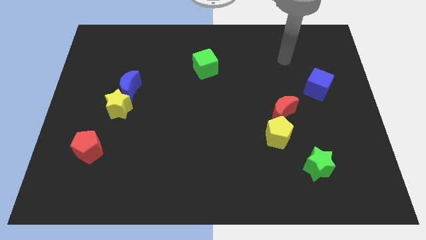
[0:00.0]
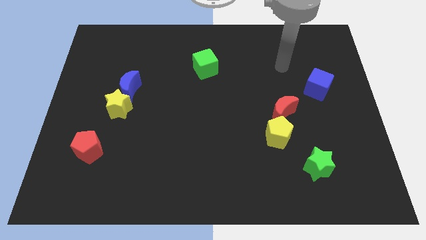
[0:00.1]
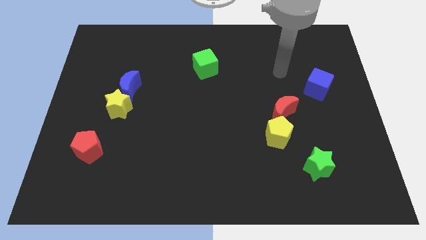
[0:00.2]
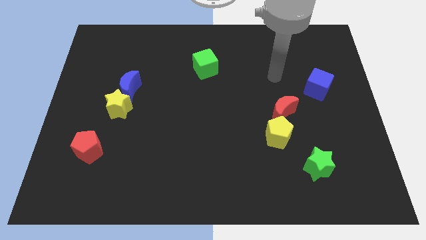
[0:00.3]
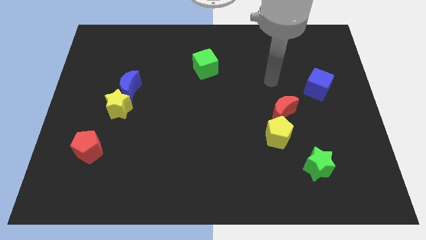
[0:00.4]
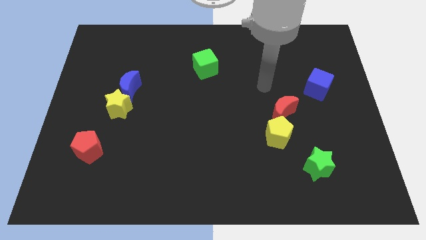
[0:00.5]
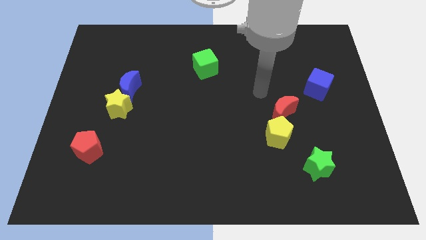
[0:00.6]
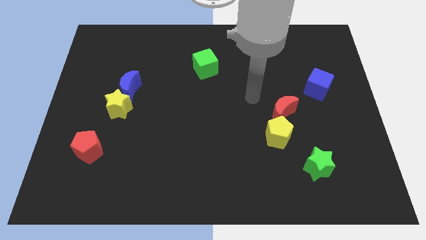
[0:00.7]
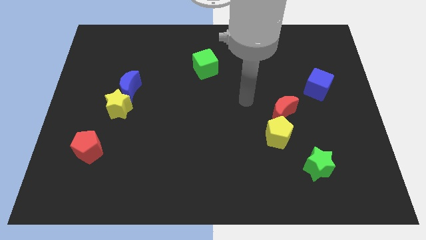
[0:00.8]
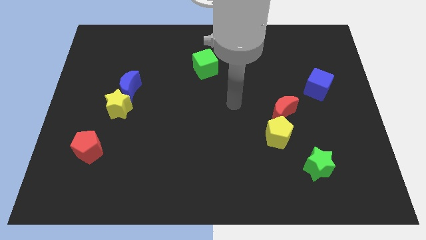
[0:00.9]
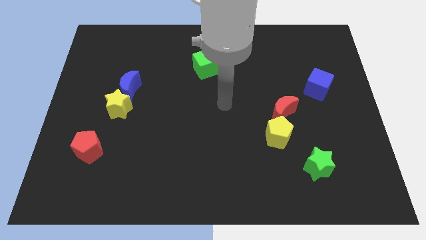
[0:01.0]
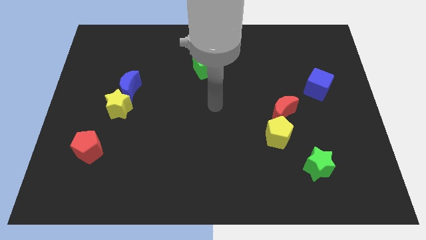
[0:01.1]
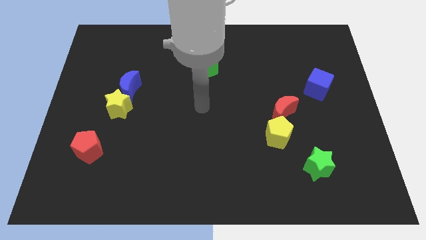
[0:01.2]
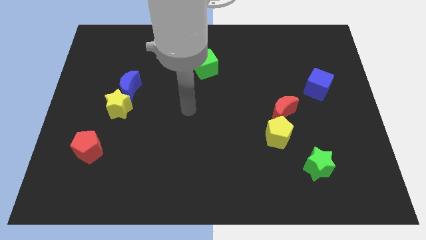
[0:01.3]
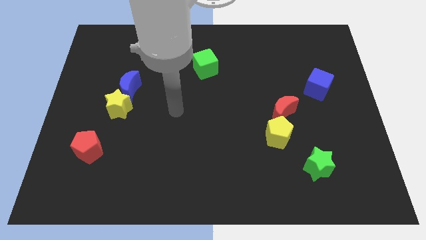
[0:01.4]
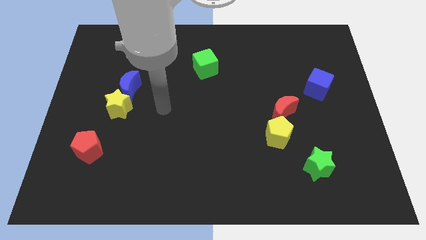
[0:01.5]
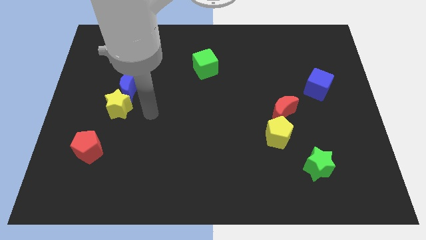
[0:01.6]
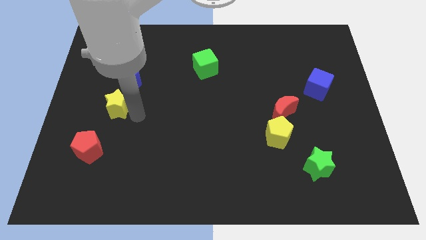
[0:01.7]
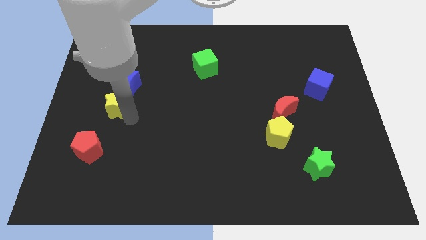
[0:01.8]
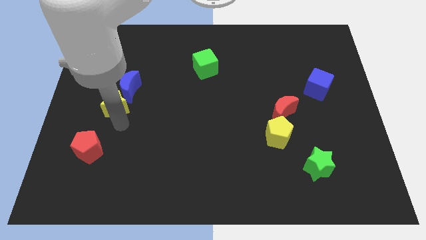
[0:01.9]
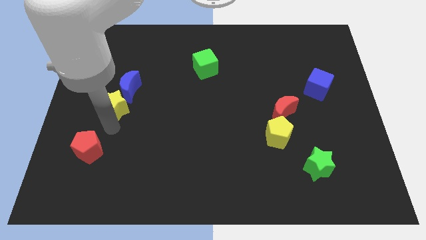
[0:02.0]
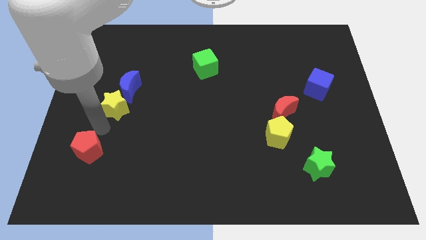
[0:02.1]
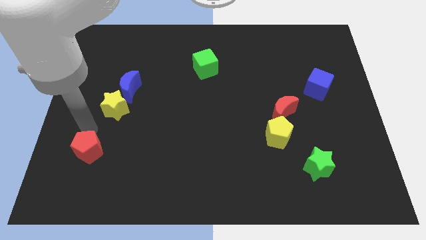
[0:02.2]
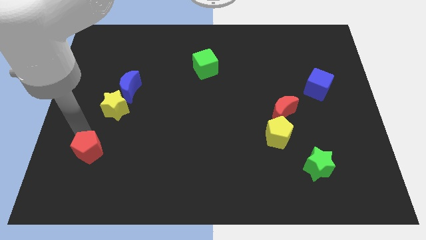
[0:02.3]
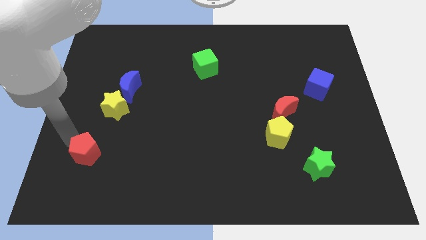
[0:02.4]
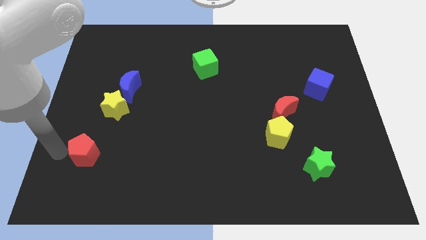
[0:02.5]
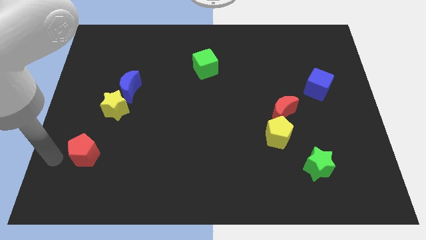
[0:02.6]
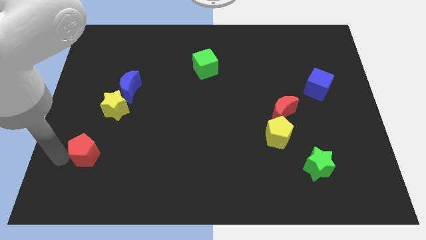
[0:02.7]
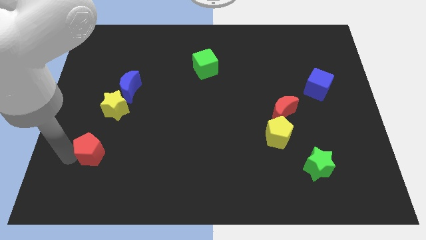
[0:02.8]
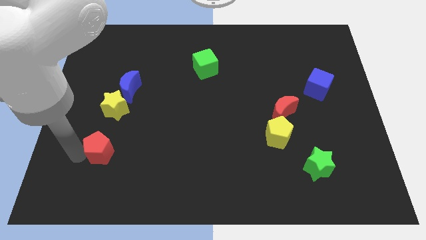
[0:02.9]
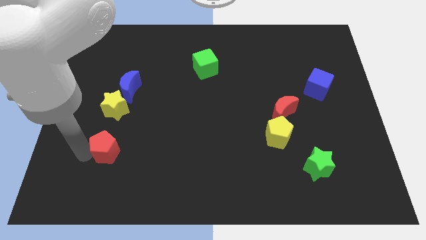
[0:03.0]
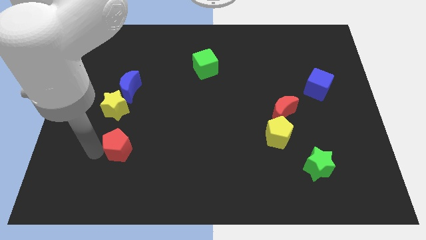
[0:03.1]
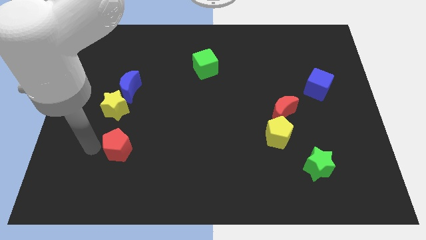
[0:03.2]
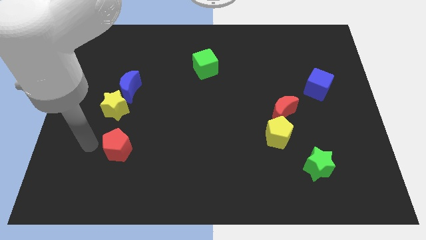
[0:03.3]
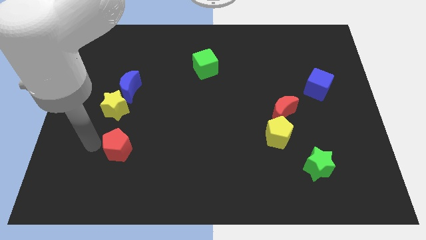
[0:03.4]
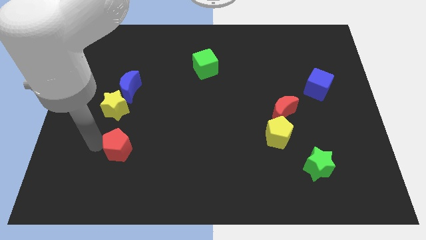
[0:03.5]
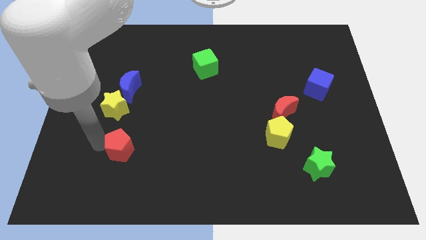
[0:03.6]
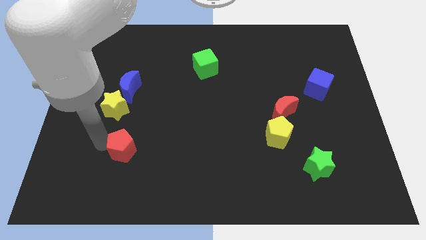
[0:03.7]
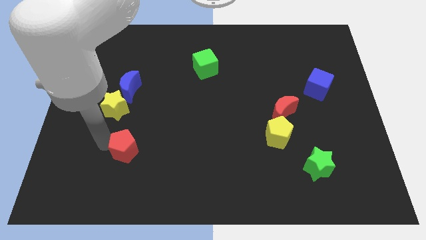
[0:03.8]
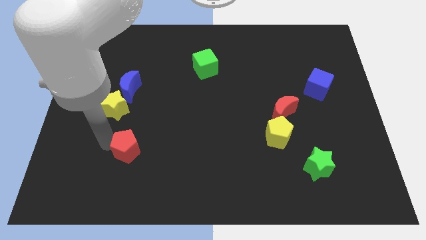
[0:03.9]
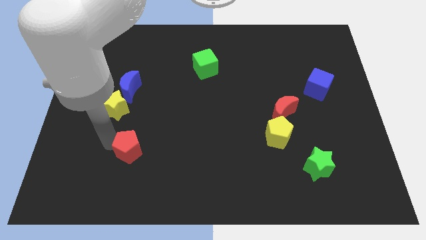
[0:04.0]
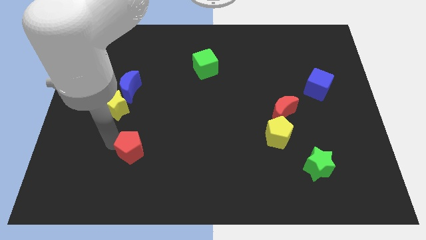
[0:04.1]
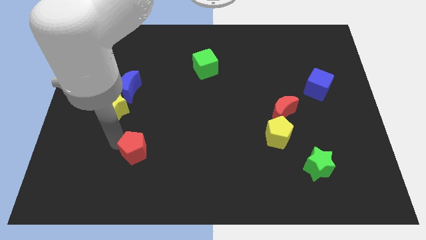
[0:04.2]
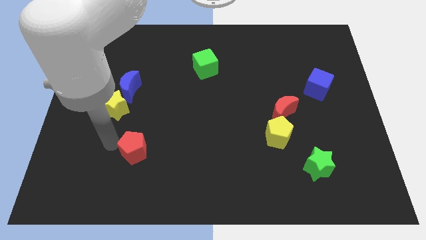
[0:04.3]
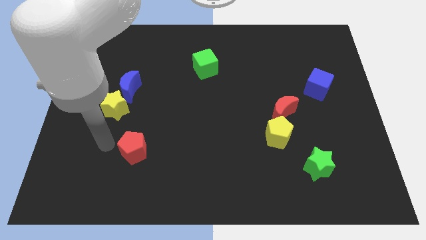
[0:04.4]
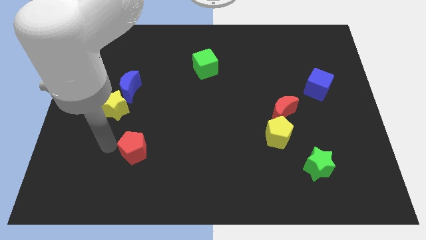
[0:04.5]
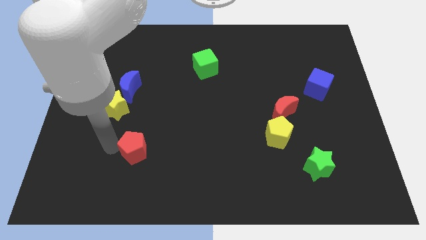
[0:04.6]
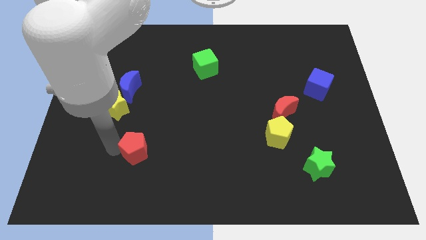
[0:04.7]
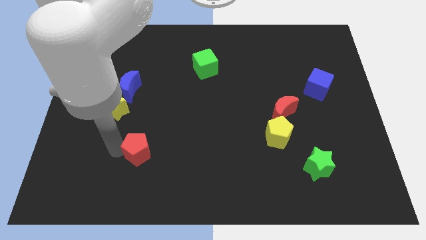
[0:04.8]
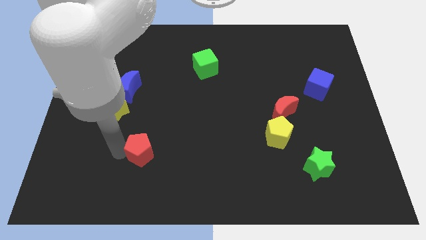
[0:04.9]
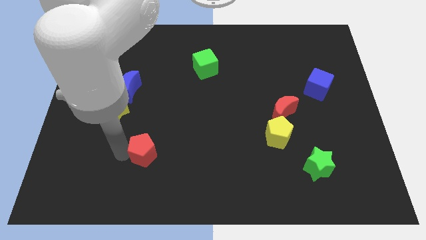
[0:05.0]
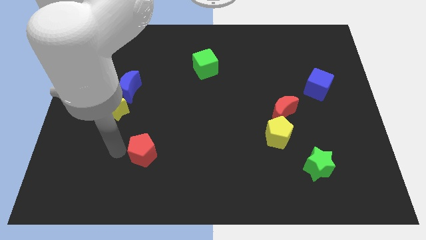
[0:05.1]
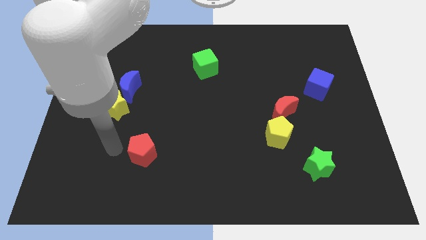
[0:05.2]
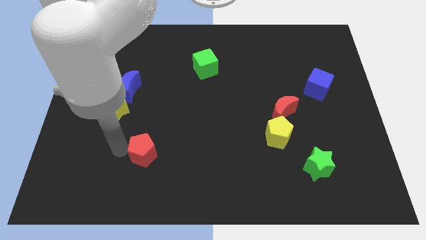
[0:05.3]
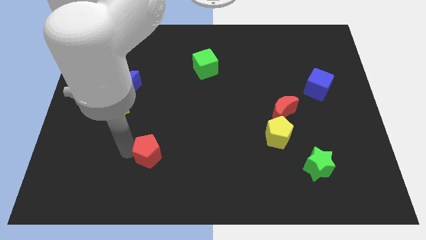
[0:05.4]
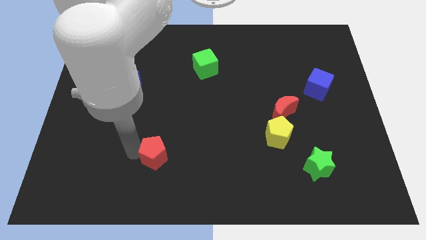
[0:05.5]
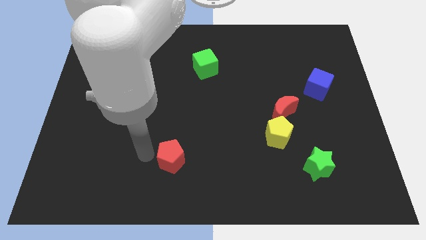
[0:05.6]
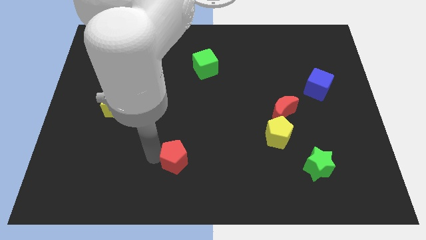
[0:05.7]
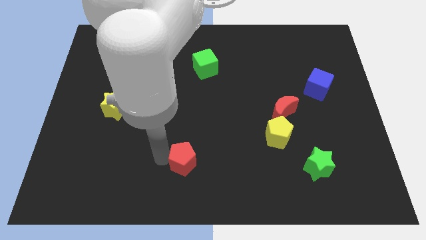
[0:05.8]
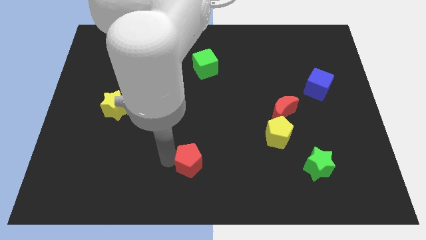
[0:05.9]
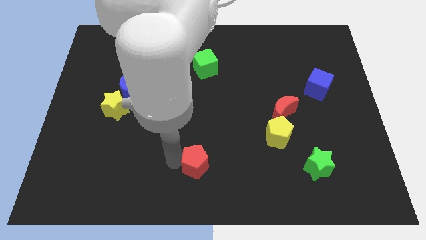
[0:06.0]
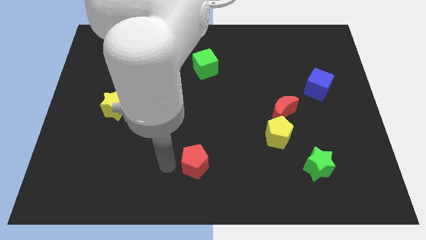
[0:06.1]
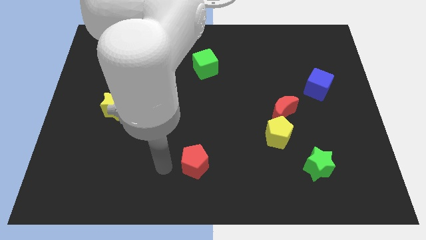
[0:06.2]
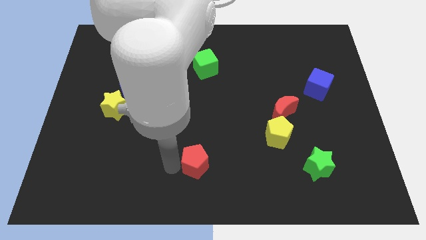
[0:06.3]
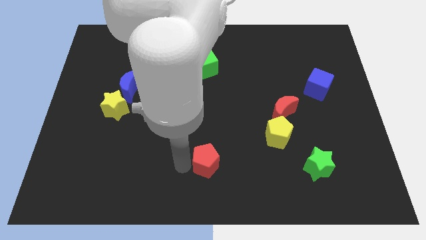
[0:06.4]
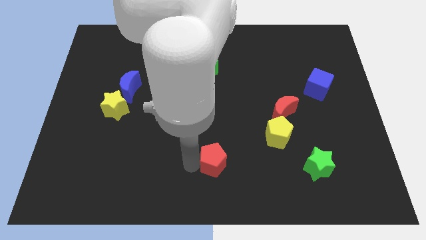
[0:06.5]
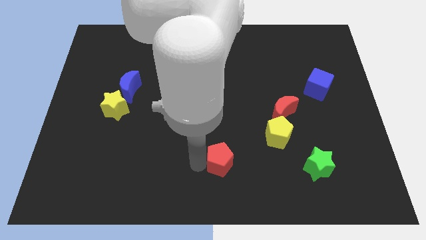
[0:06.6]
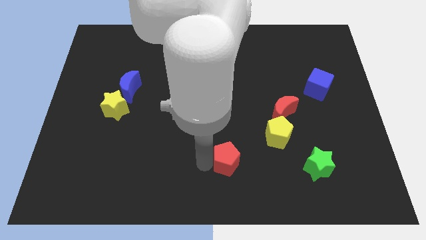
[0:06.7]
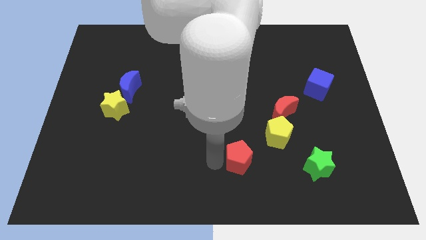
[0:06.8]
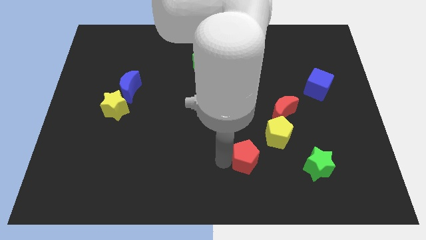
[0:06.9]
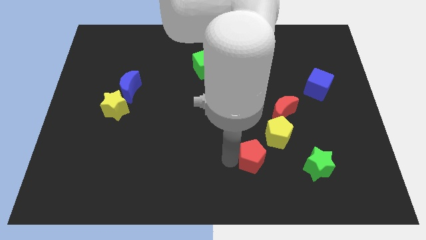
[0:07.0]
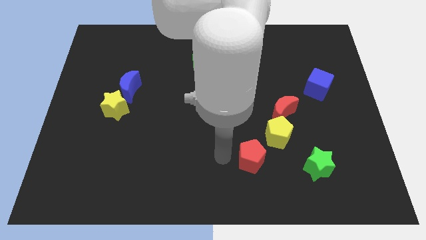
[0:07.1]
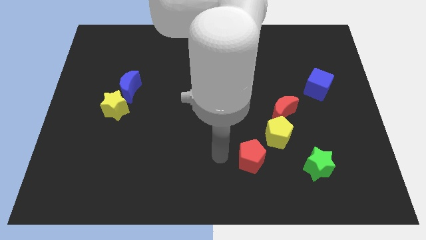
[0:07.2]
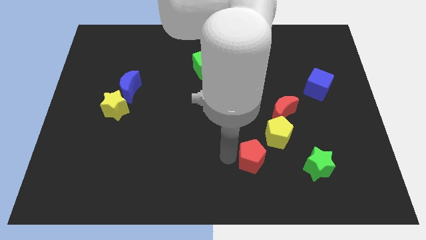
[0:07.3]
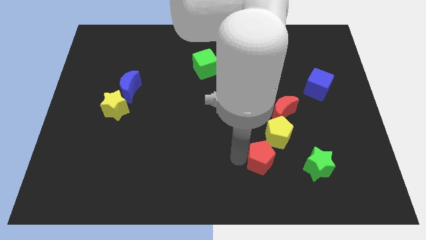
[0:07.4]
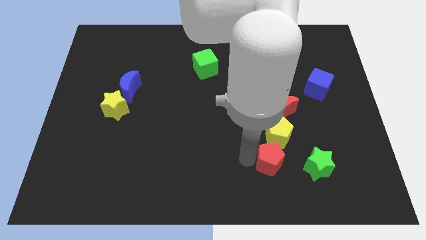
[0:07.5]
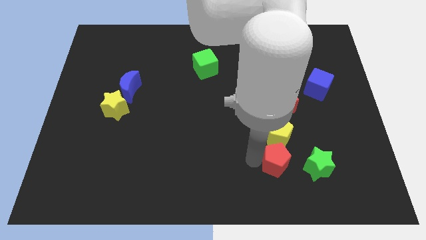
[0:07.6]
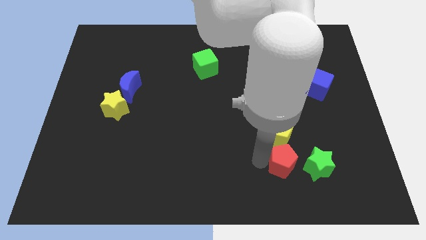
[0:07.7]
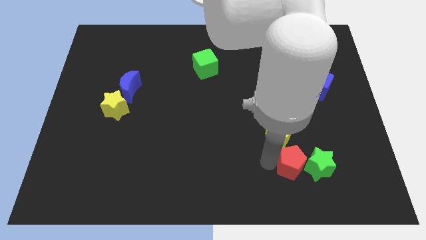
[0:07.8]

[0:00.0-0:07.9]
move the red pentagon towards the green star

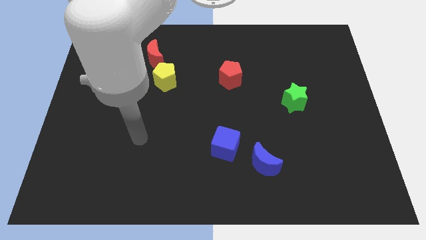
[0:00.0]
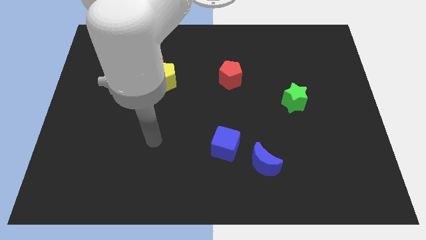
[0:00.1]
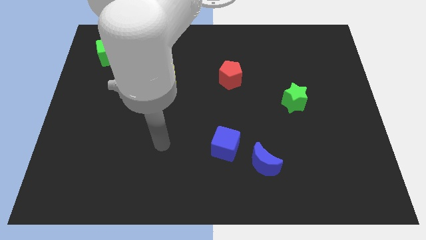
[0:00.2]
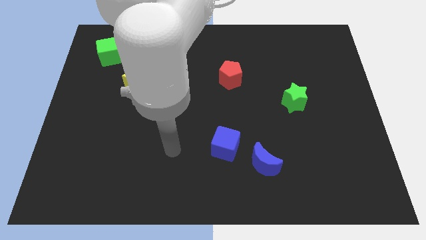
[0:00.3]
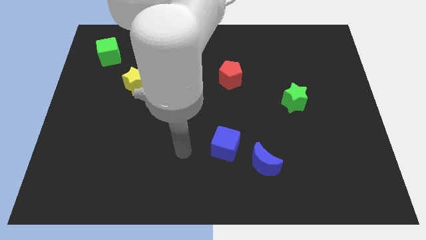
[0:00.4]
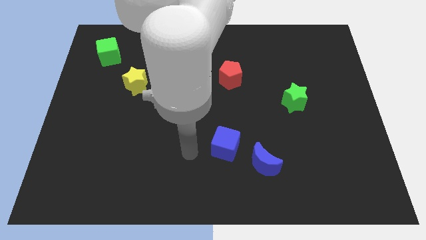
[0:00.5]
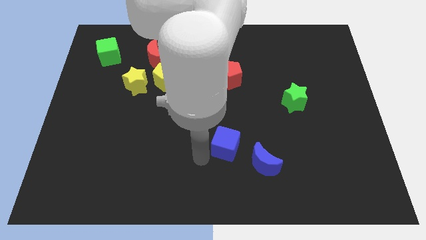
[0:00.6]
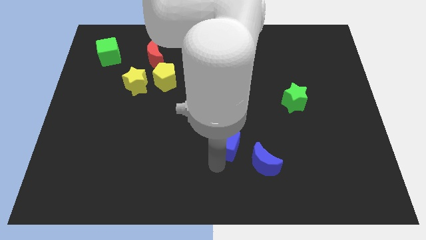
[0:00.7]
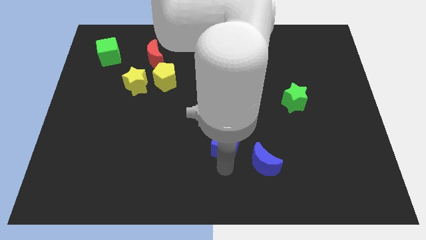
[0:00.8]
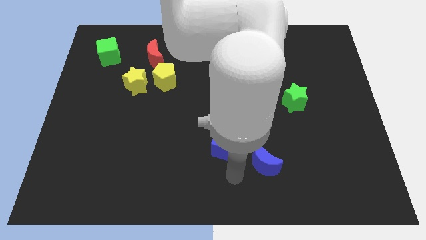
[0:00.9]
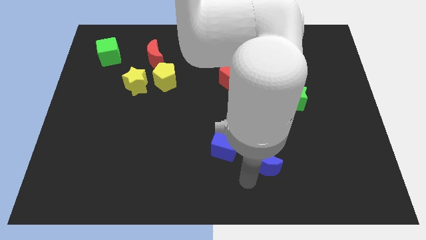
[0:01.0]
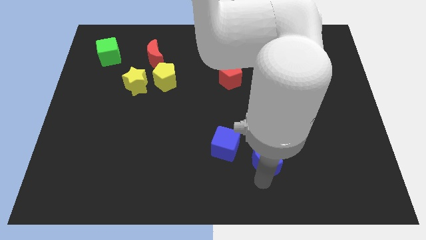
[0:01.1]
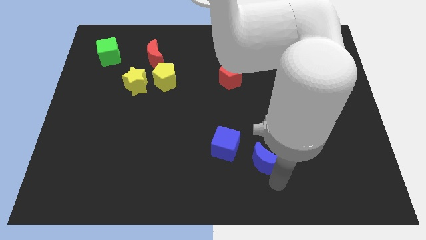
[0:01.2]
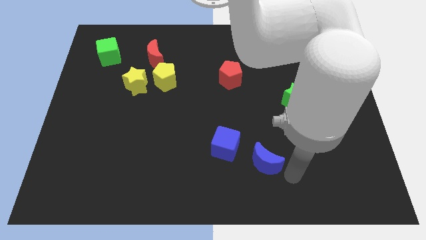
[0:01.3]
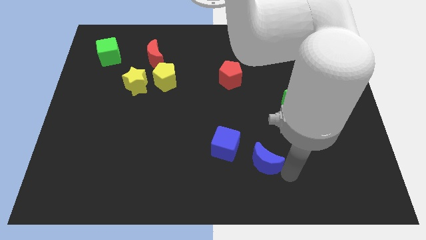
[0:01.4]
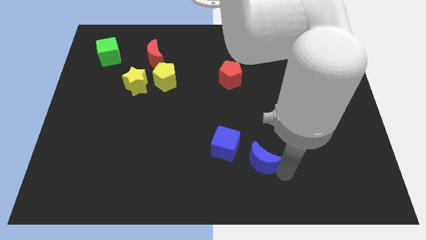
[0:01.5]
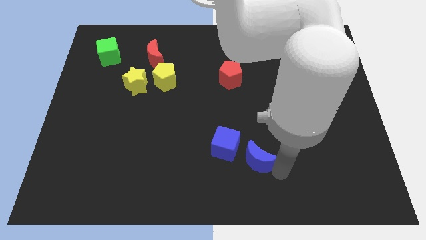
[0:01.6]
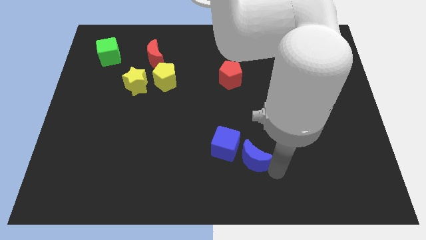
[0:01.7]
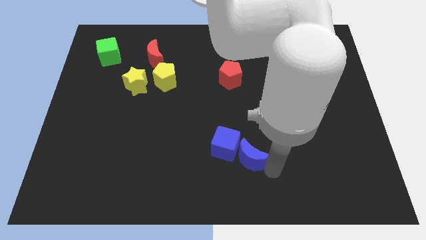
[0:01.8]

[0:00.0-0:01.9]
move the blue moon close to the blue cube
